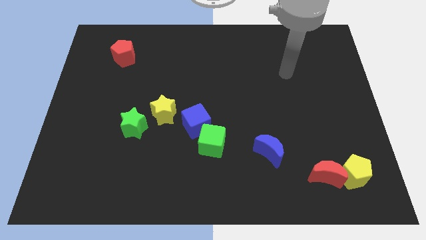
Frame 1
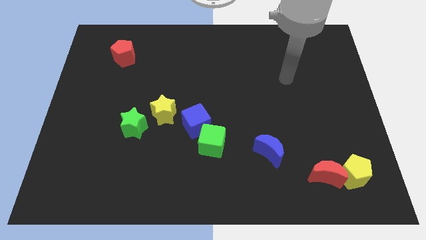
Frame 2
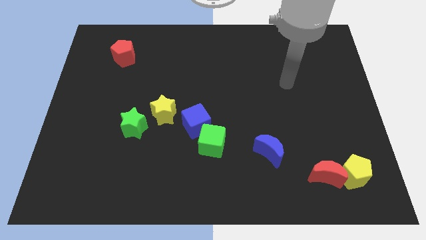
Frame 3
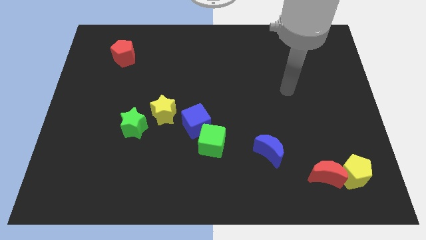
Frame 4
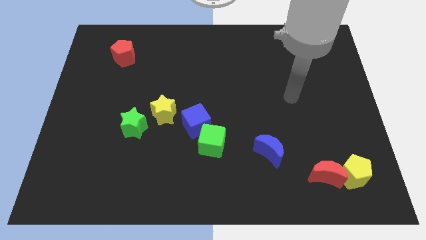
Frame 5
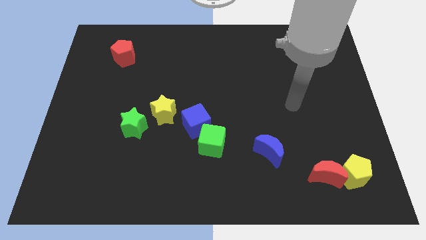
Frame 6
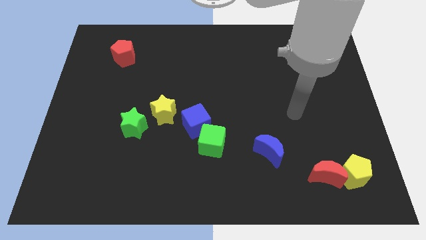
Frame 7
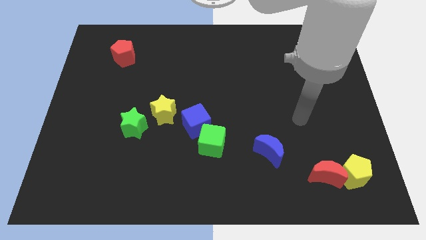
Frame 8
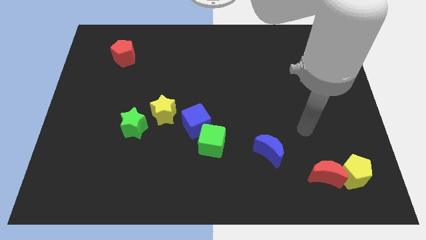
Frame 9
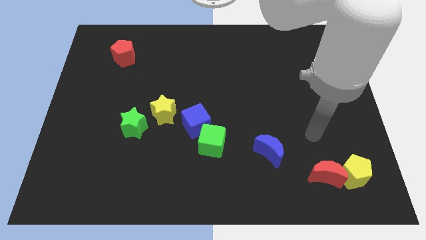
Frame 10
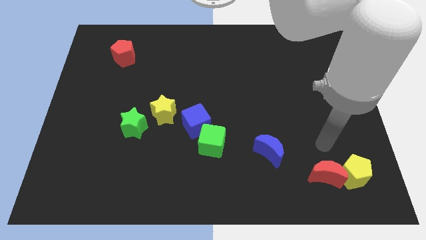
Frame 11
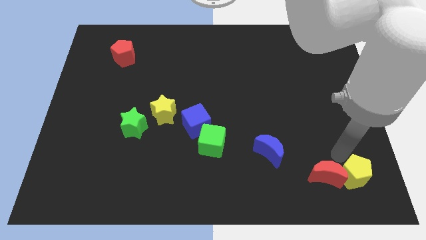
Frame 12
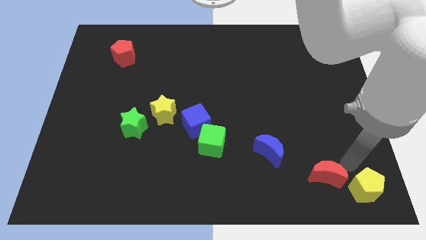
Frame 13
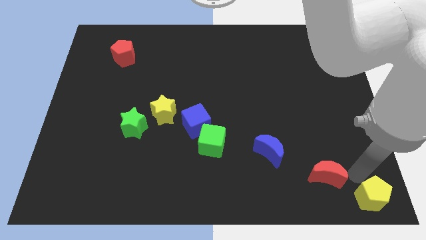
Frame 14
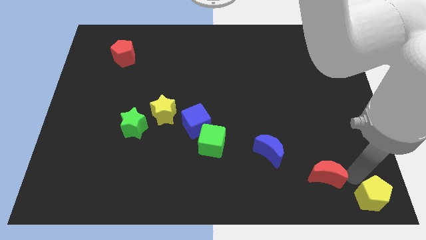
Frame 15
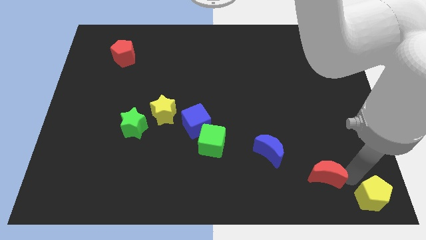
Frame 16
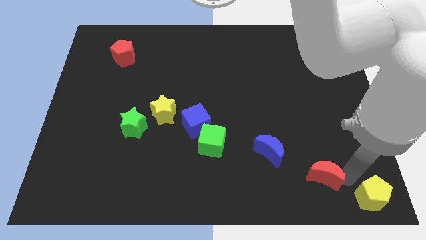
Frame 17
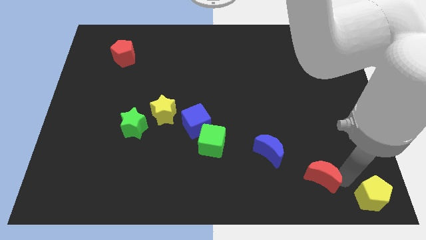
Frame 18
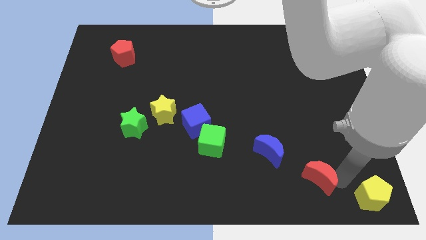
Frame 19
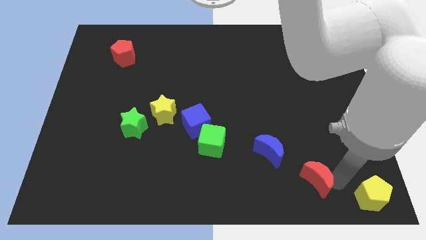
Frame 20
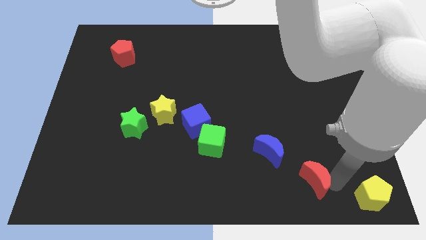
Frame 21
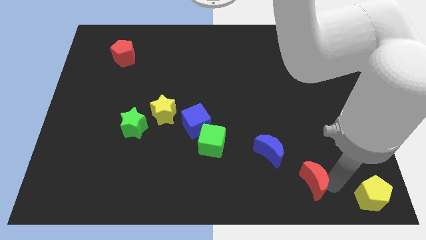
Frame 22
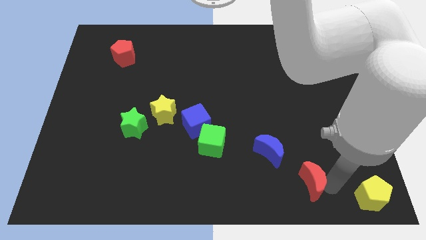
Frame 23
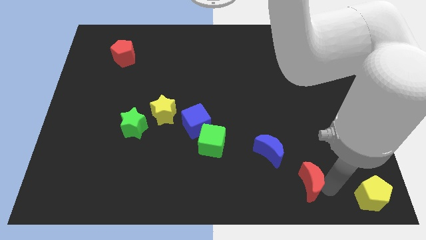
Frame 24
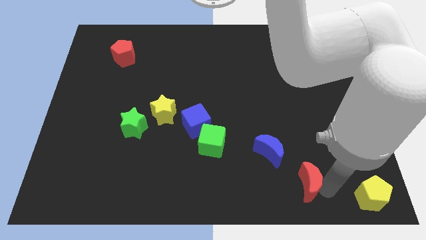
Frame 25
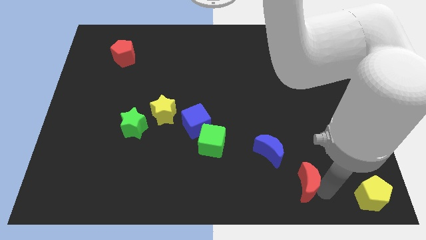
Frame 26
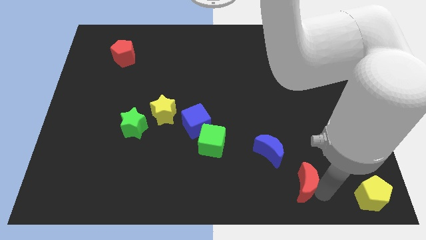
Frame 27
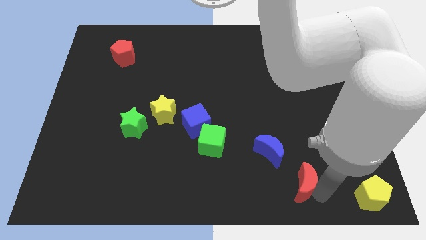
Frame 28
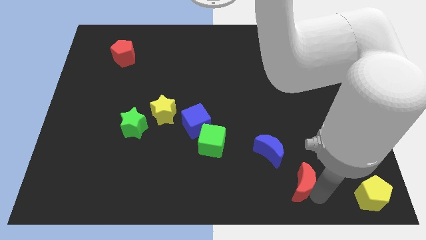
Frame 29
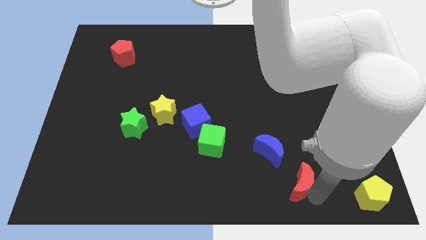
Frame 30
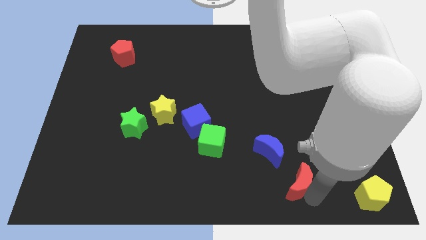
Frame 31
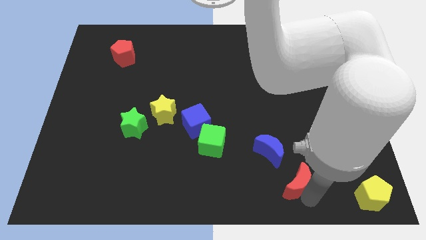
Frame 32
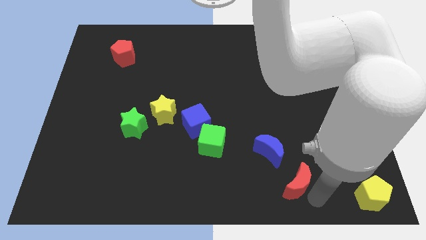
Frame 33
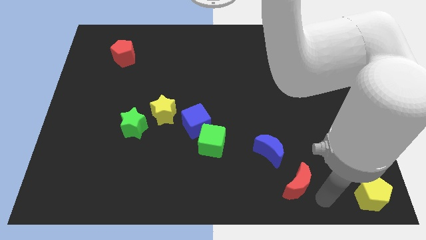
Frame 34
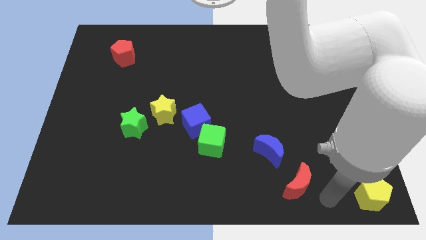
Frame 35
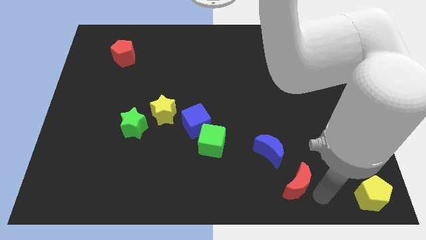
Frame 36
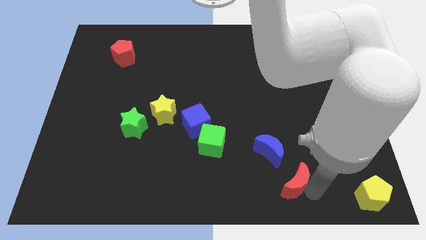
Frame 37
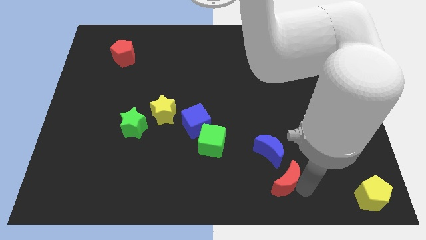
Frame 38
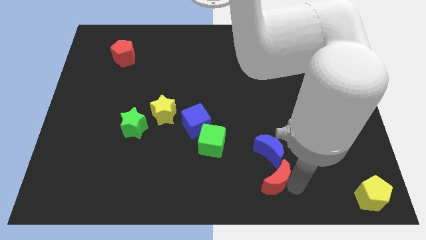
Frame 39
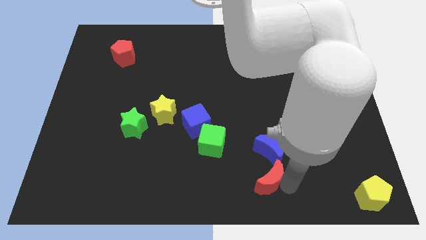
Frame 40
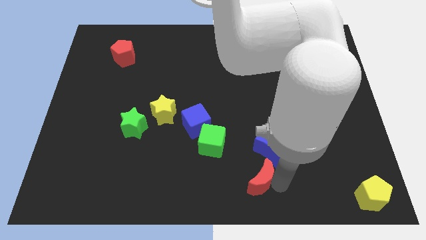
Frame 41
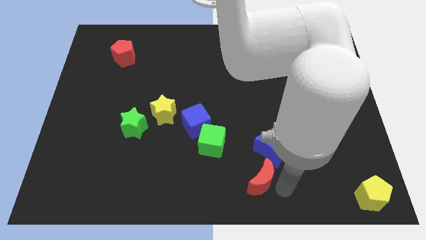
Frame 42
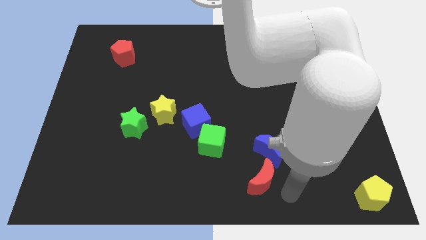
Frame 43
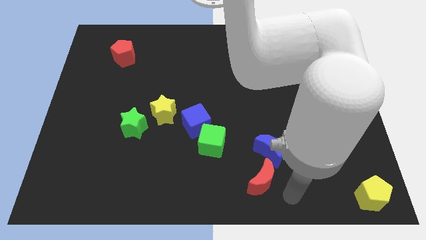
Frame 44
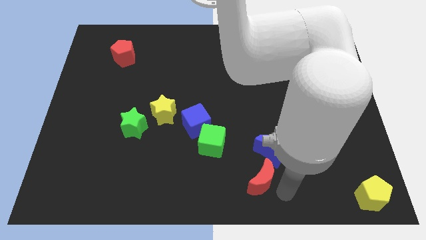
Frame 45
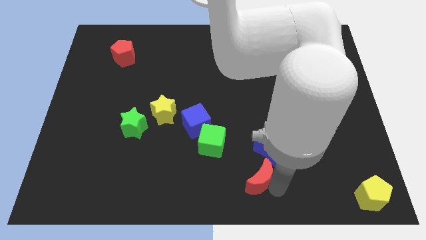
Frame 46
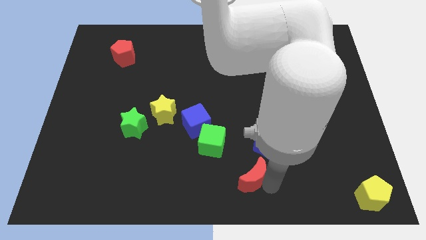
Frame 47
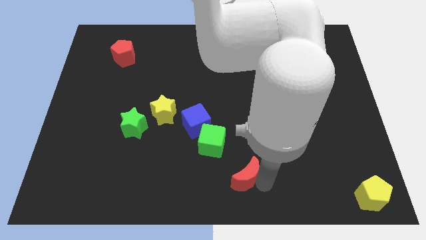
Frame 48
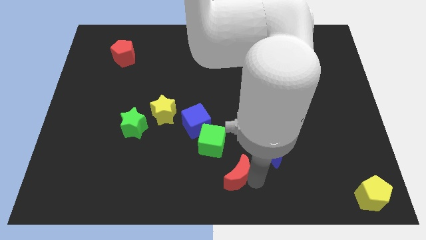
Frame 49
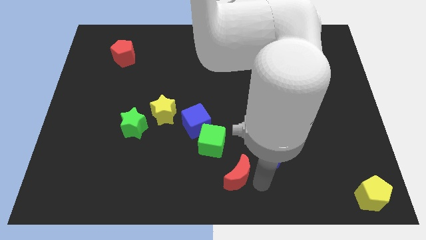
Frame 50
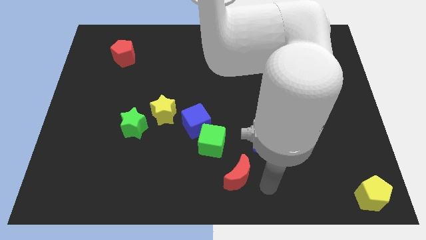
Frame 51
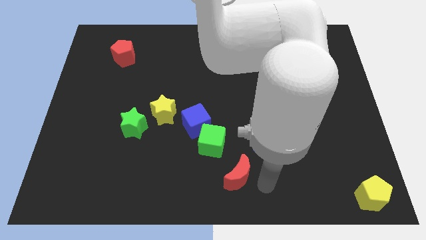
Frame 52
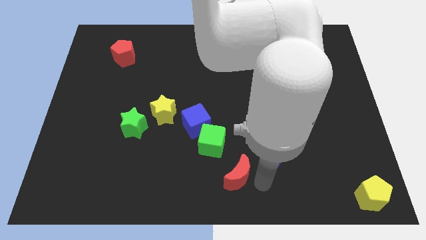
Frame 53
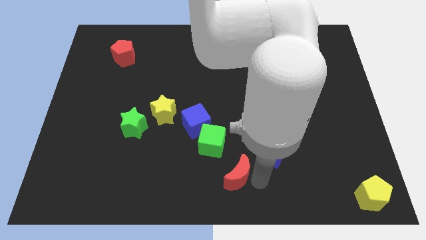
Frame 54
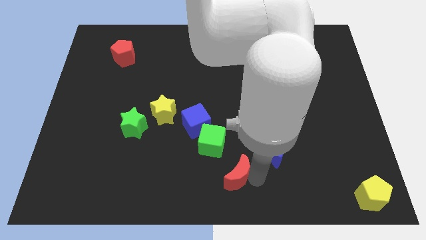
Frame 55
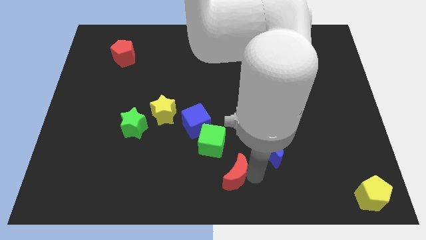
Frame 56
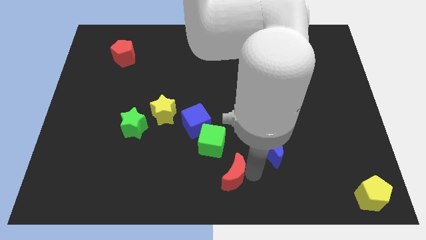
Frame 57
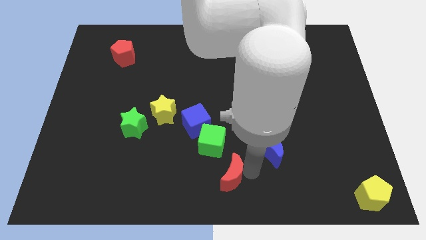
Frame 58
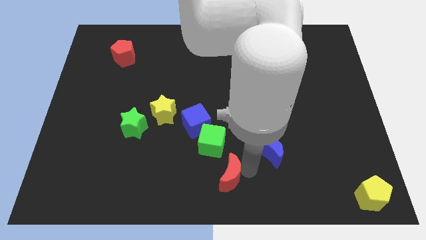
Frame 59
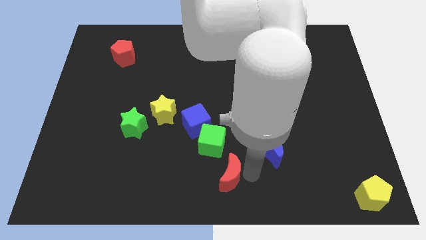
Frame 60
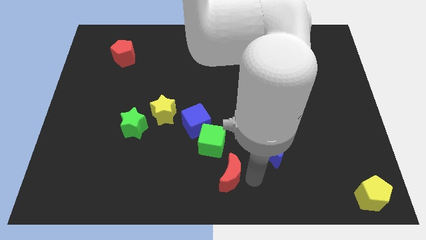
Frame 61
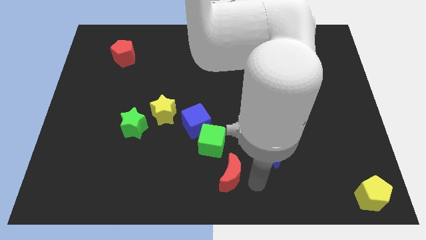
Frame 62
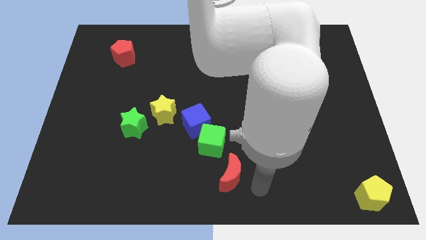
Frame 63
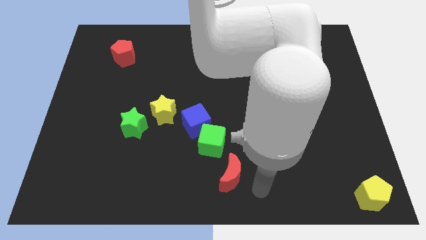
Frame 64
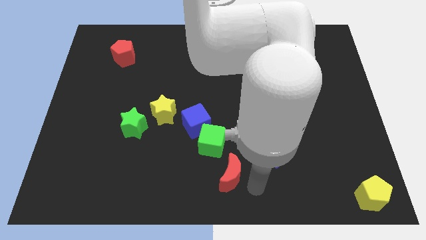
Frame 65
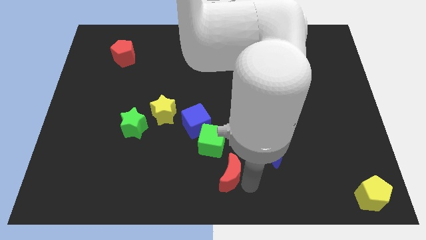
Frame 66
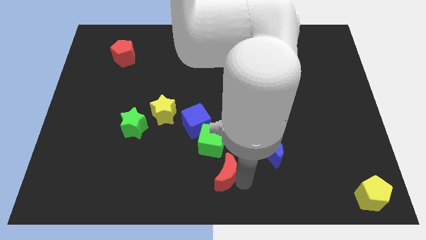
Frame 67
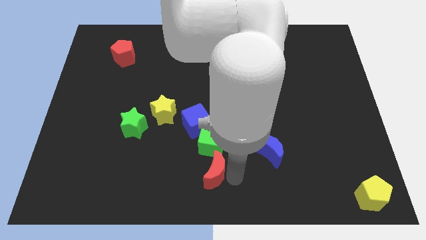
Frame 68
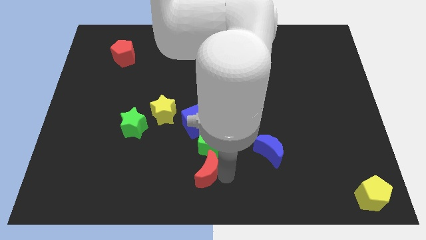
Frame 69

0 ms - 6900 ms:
put the red moon diagonally down and to the left of the green cube
